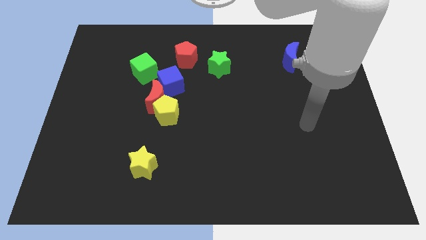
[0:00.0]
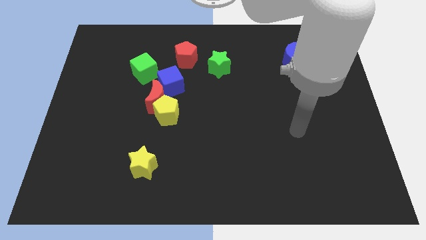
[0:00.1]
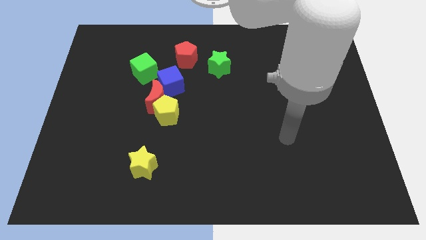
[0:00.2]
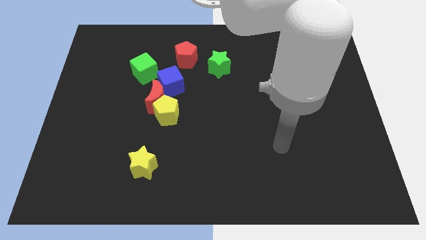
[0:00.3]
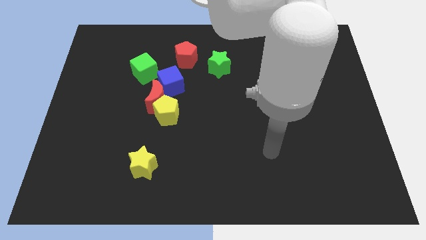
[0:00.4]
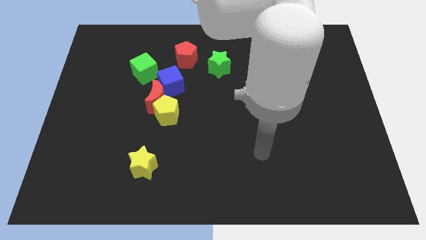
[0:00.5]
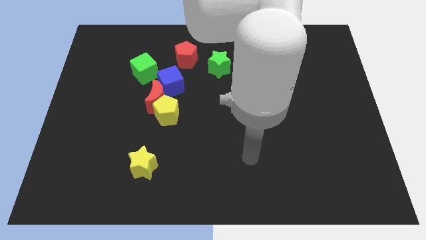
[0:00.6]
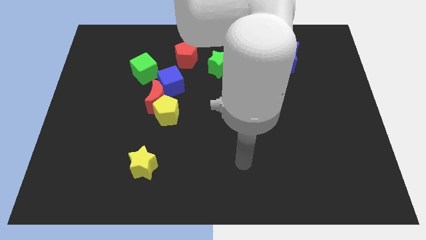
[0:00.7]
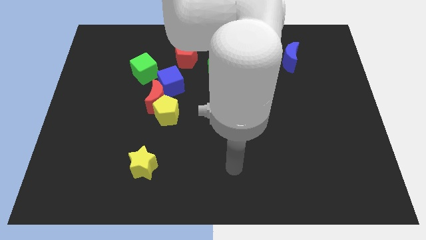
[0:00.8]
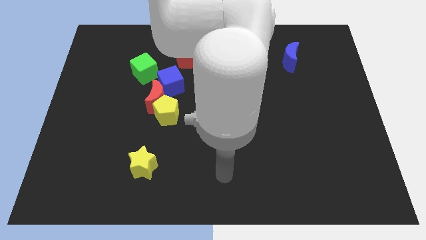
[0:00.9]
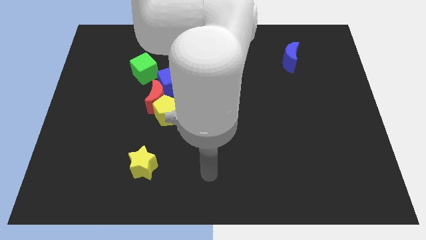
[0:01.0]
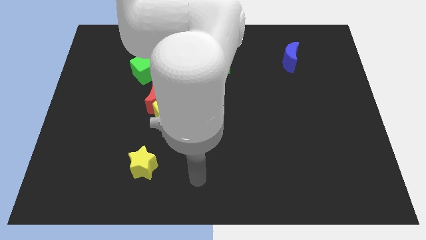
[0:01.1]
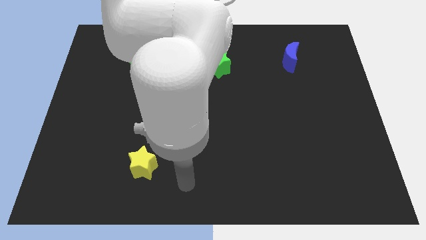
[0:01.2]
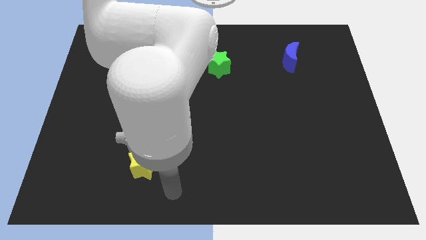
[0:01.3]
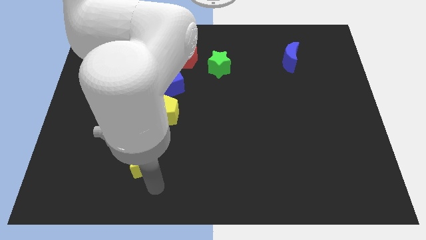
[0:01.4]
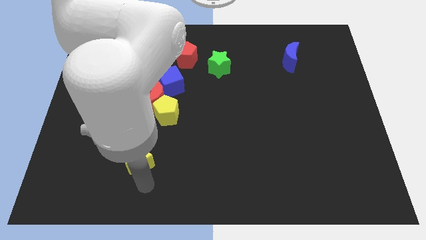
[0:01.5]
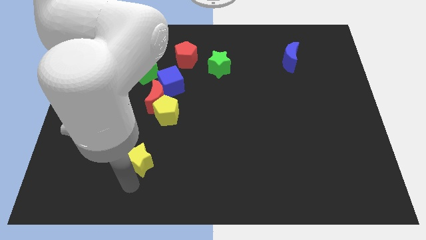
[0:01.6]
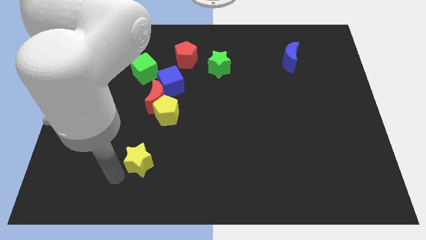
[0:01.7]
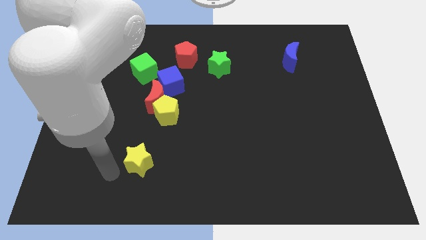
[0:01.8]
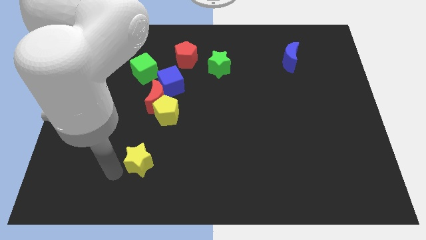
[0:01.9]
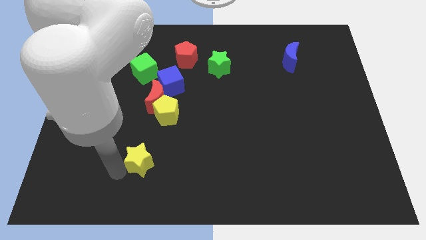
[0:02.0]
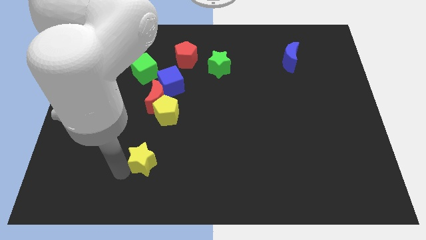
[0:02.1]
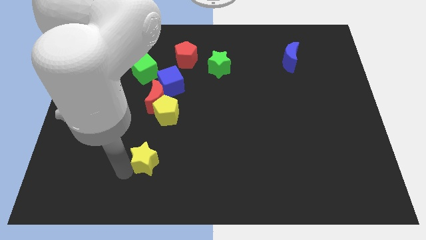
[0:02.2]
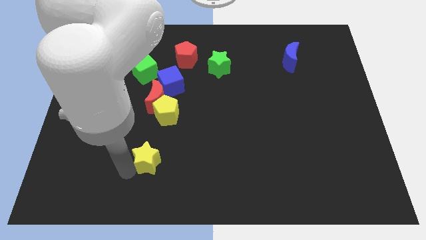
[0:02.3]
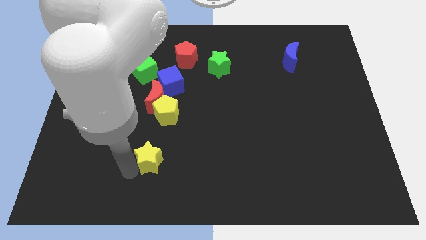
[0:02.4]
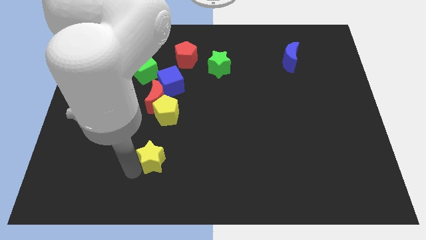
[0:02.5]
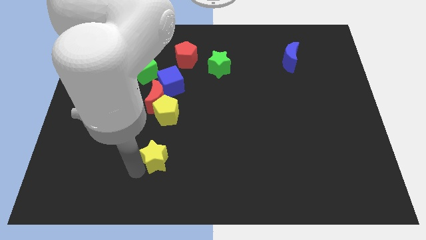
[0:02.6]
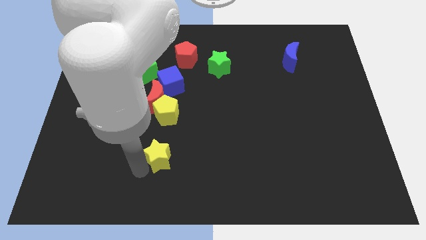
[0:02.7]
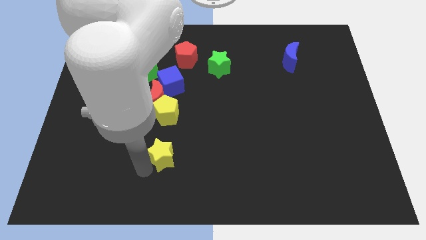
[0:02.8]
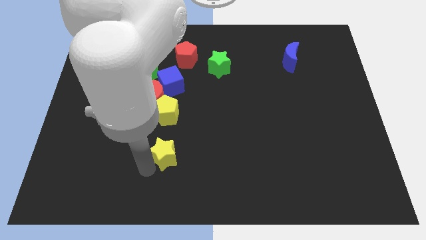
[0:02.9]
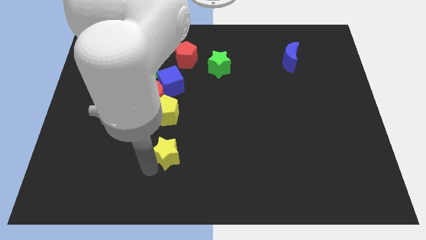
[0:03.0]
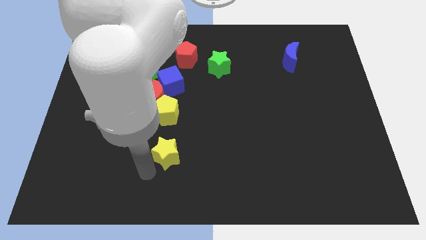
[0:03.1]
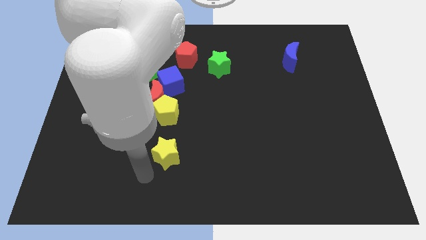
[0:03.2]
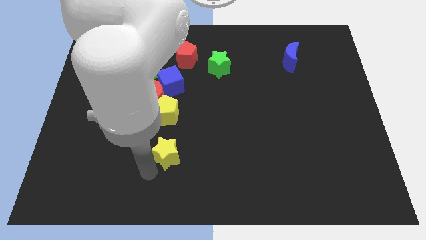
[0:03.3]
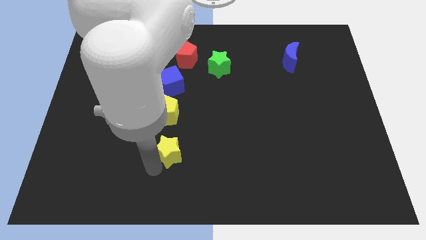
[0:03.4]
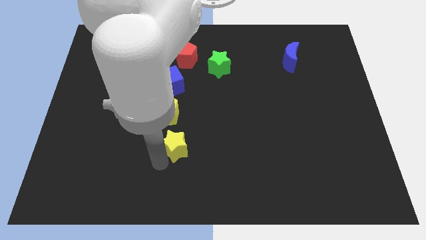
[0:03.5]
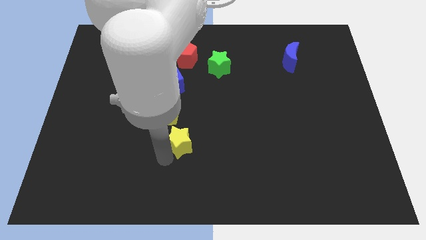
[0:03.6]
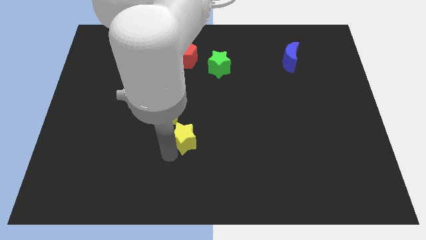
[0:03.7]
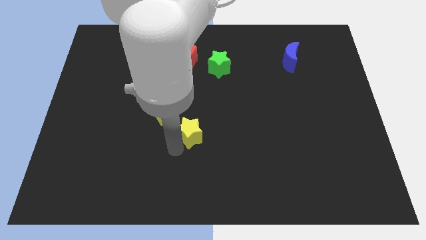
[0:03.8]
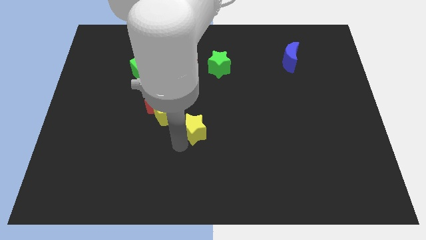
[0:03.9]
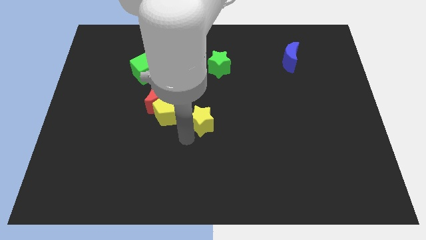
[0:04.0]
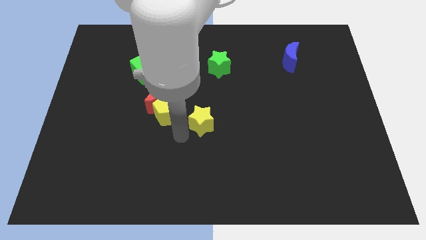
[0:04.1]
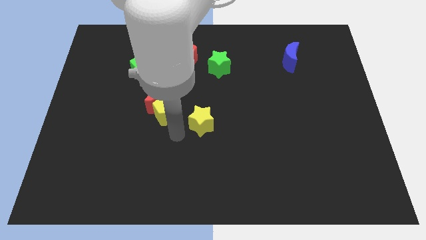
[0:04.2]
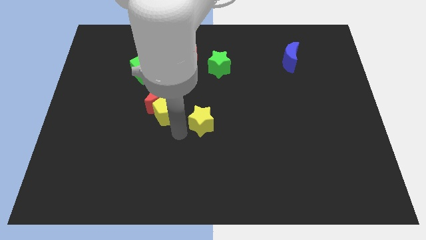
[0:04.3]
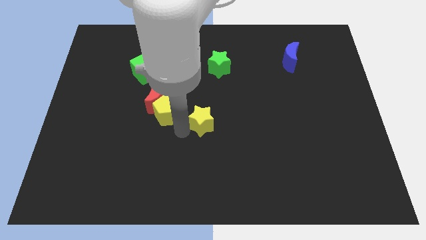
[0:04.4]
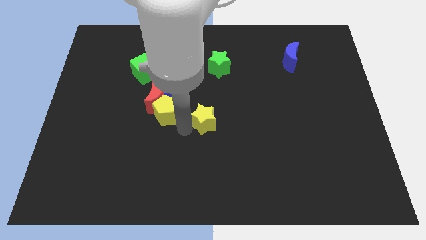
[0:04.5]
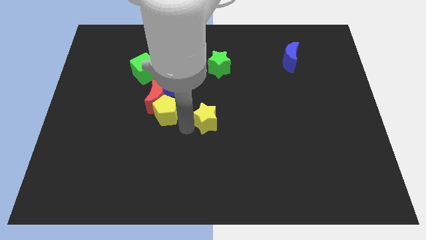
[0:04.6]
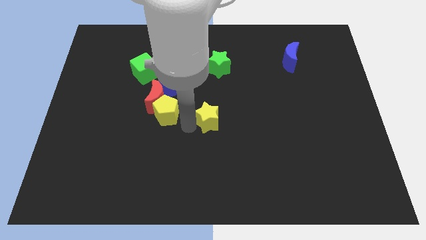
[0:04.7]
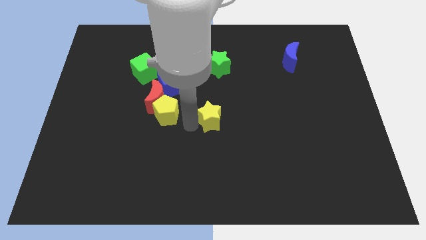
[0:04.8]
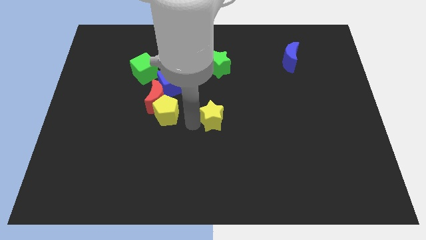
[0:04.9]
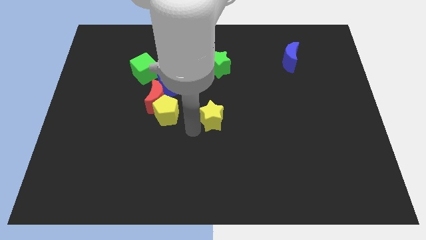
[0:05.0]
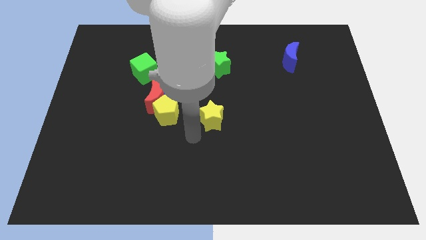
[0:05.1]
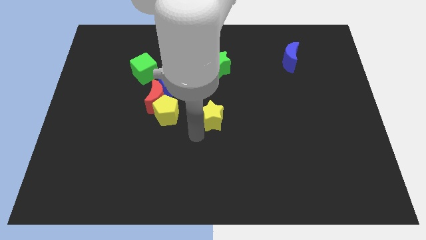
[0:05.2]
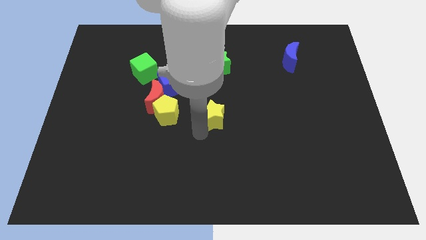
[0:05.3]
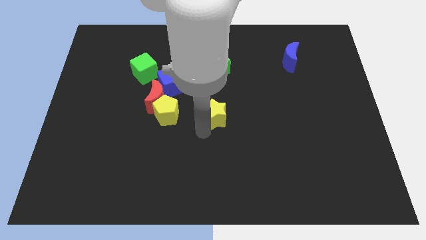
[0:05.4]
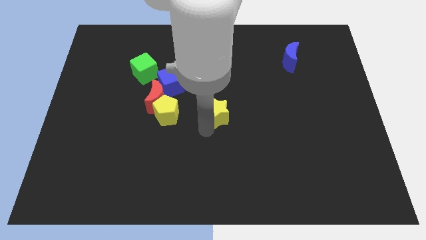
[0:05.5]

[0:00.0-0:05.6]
slide the yellow star upwards and then right

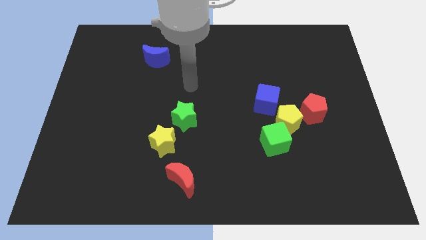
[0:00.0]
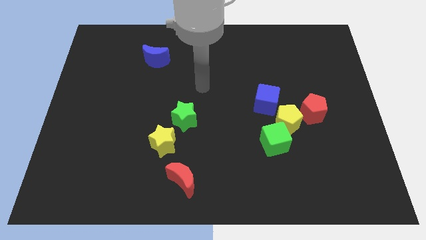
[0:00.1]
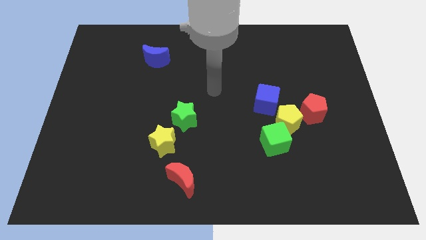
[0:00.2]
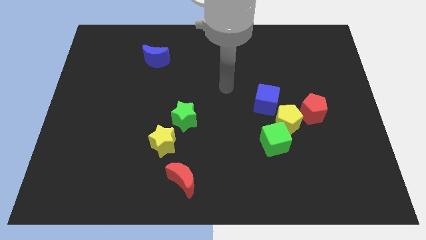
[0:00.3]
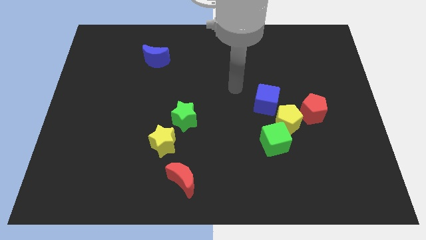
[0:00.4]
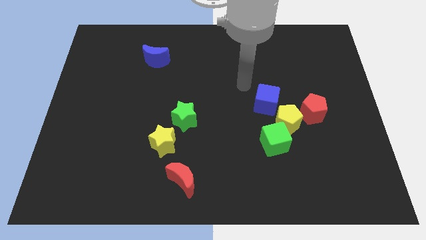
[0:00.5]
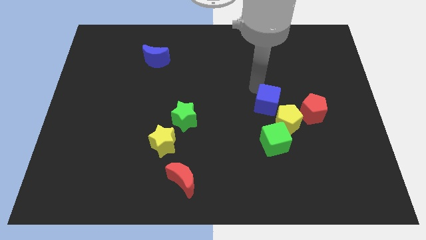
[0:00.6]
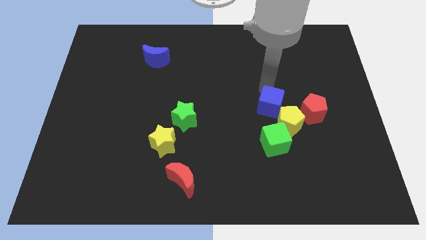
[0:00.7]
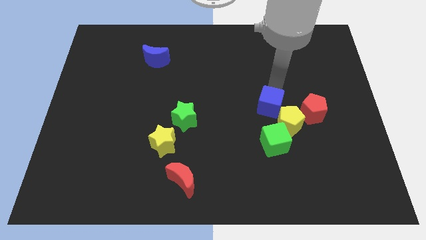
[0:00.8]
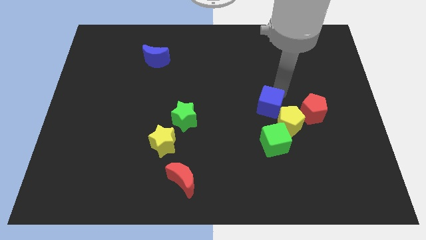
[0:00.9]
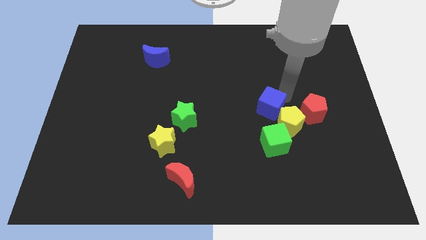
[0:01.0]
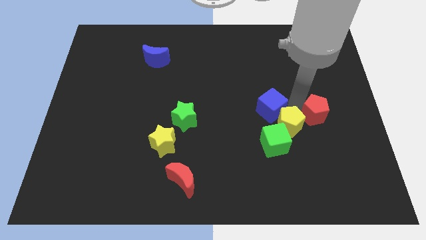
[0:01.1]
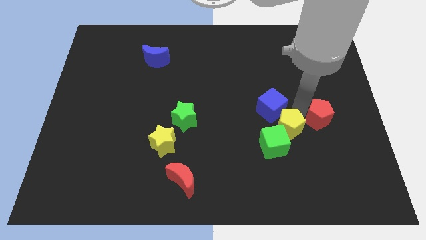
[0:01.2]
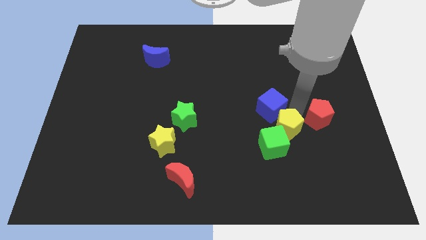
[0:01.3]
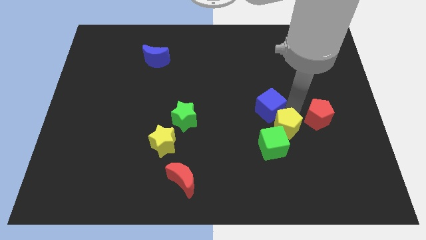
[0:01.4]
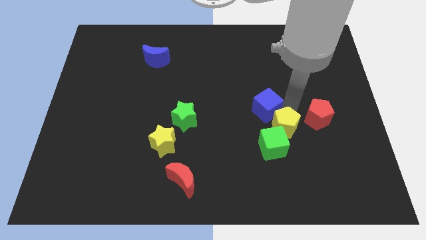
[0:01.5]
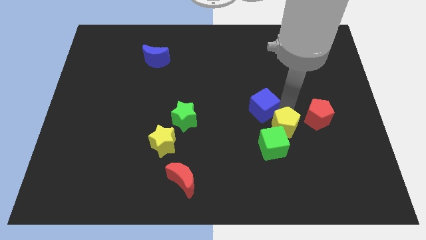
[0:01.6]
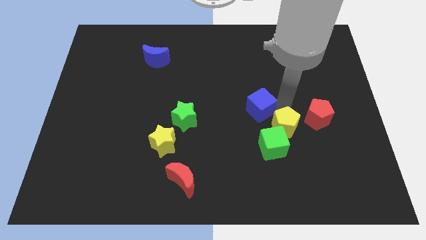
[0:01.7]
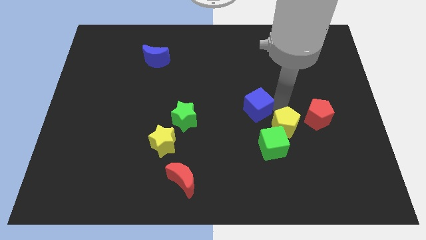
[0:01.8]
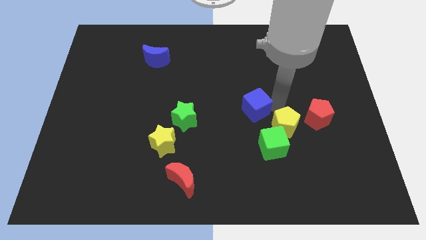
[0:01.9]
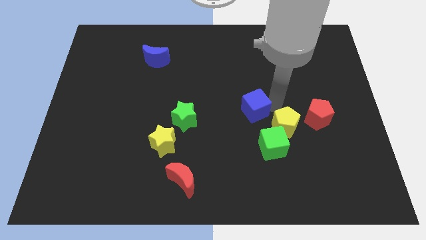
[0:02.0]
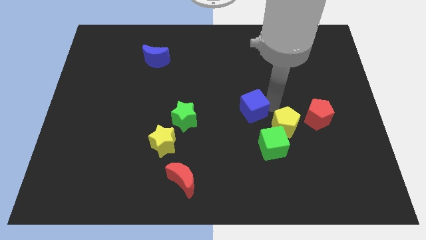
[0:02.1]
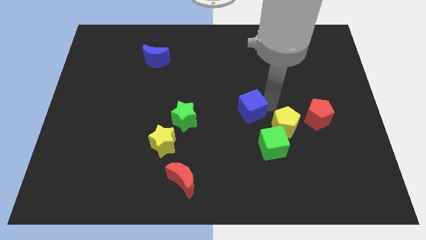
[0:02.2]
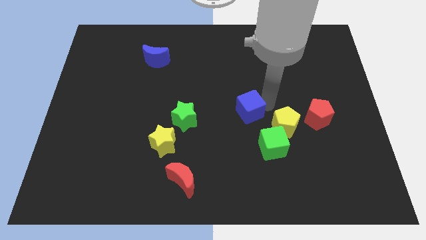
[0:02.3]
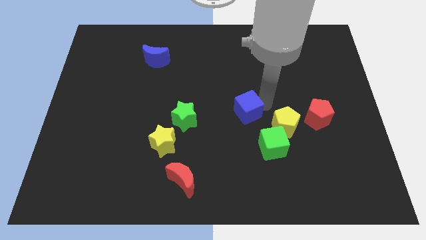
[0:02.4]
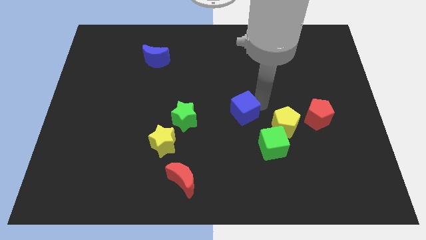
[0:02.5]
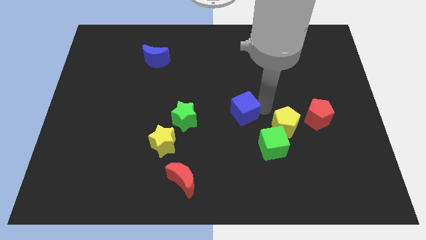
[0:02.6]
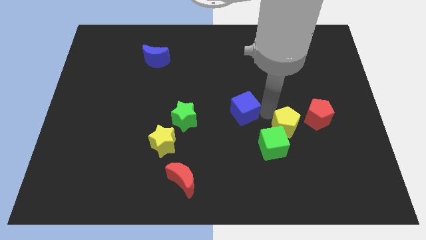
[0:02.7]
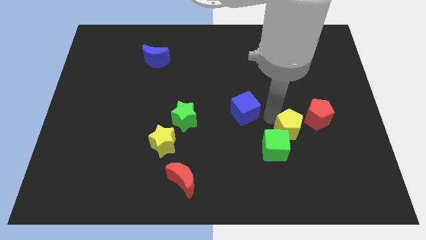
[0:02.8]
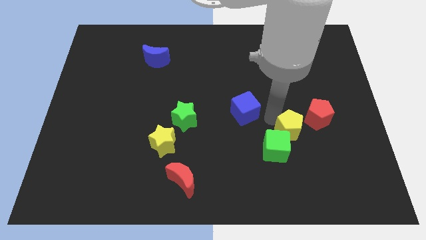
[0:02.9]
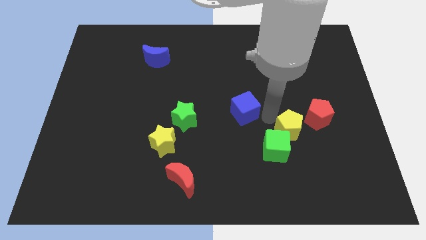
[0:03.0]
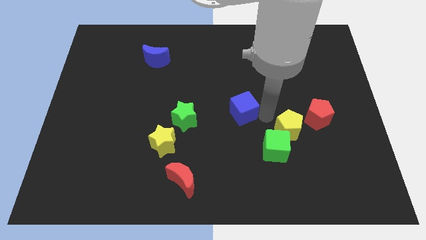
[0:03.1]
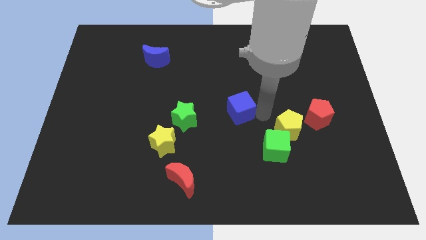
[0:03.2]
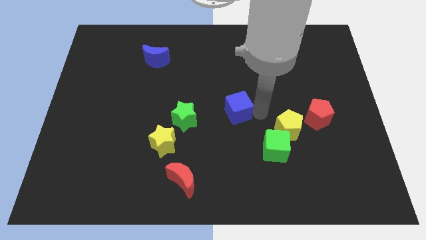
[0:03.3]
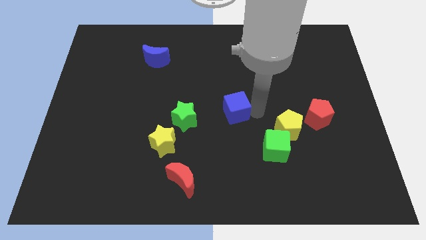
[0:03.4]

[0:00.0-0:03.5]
push the blue cube somewhat to the left
